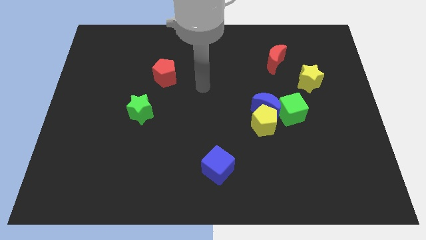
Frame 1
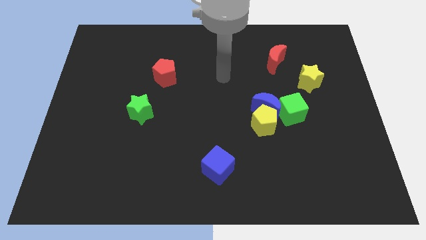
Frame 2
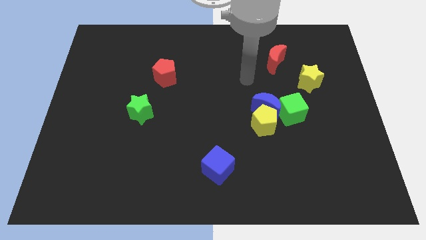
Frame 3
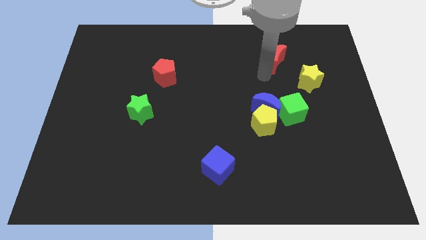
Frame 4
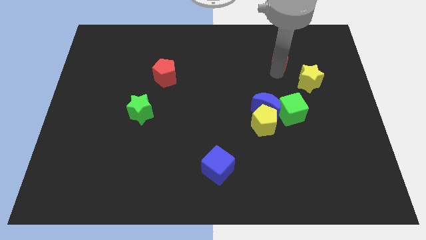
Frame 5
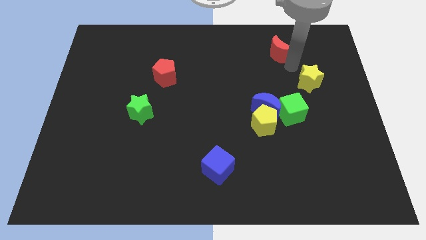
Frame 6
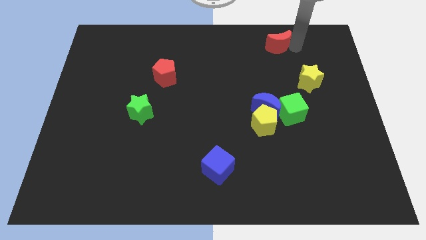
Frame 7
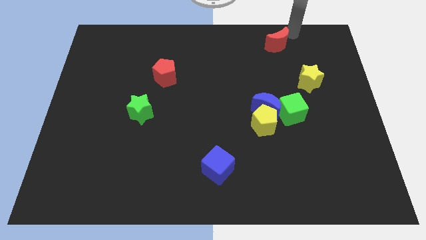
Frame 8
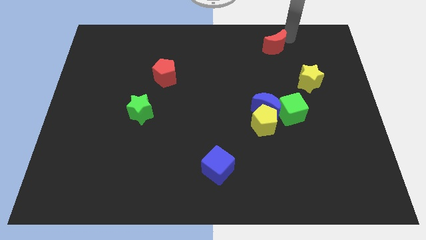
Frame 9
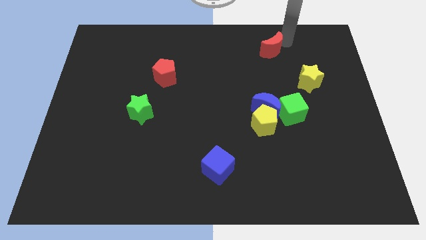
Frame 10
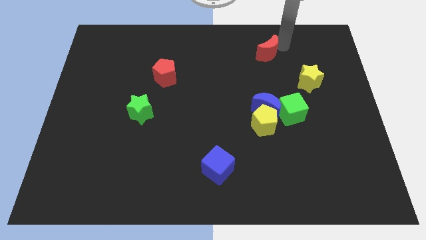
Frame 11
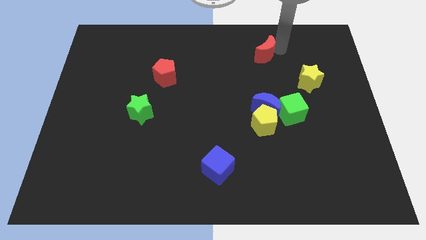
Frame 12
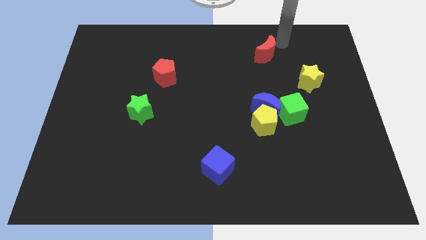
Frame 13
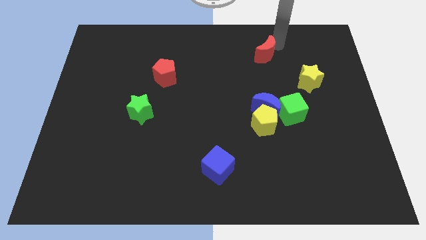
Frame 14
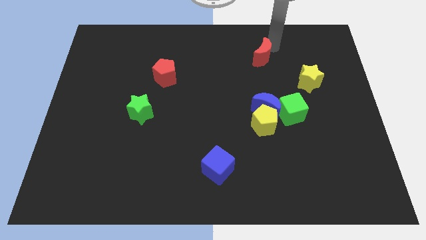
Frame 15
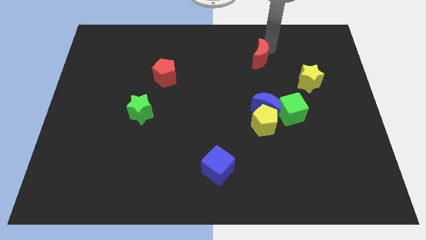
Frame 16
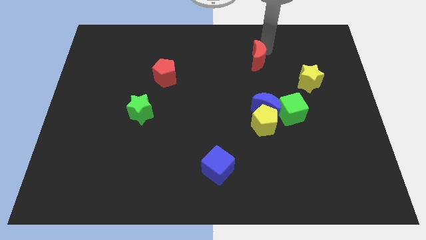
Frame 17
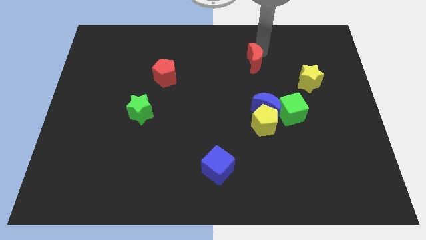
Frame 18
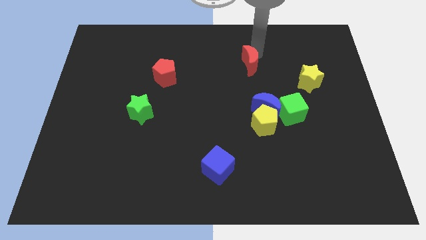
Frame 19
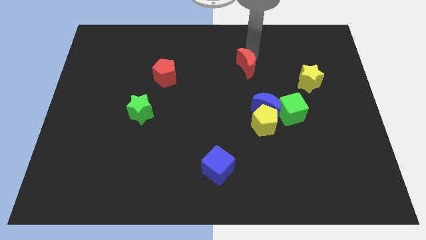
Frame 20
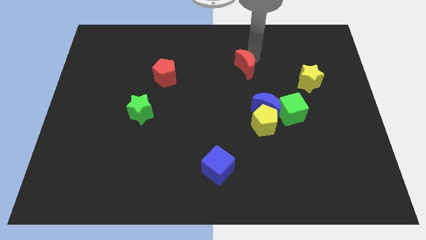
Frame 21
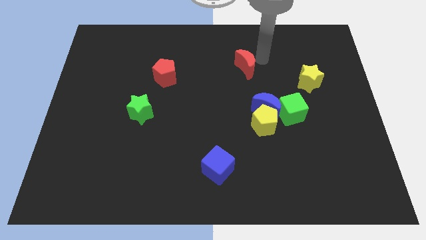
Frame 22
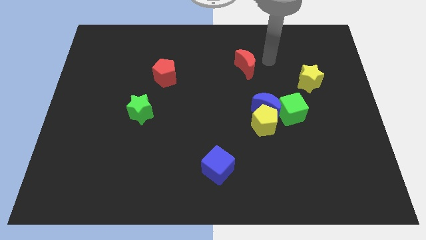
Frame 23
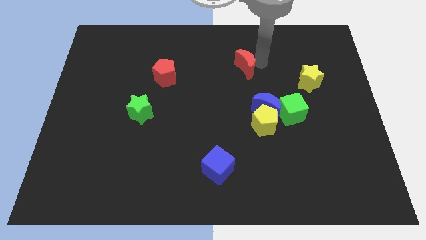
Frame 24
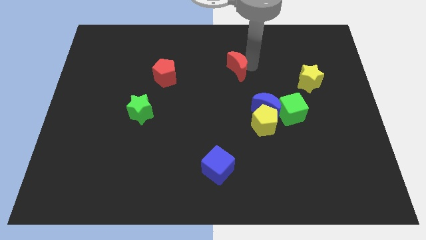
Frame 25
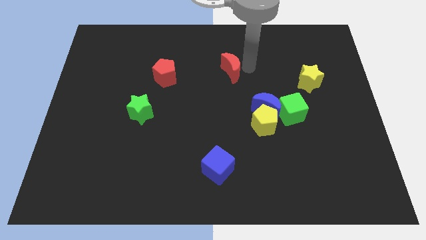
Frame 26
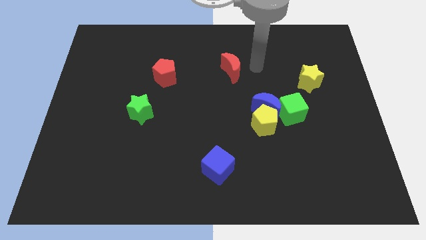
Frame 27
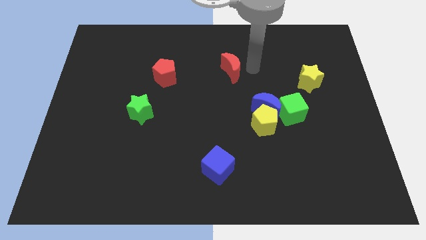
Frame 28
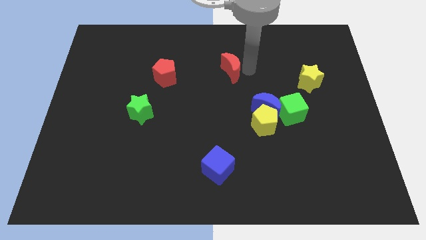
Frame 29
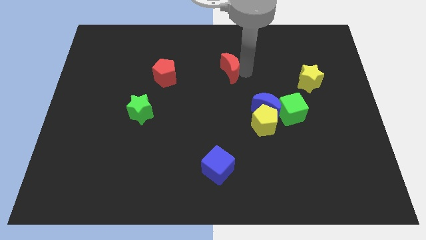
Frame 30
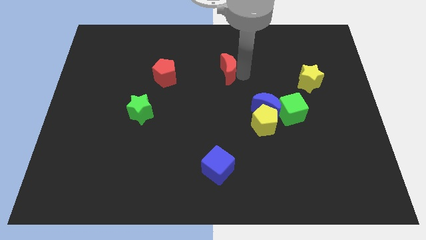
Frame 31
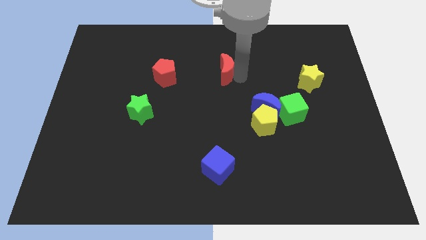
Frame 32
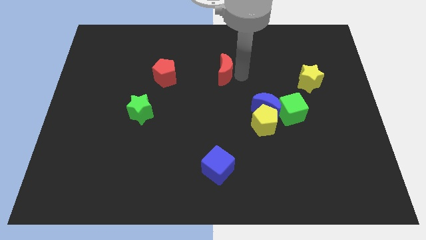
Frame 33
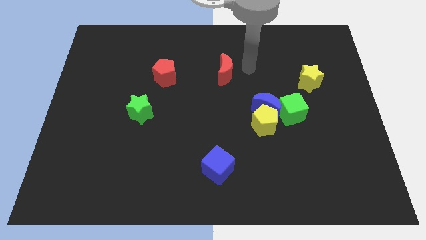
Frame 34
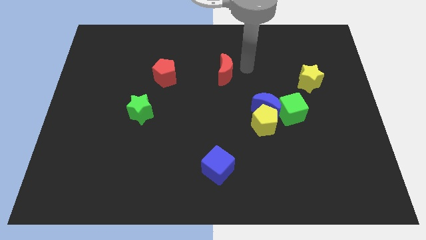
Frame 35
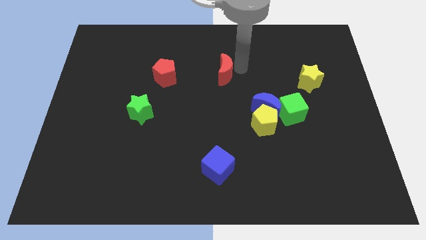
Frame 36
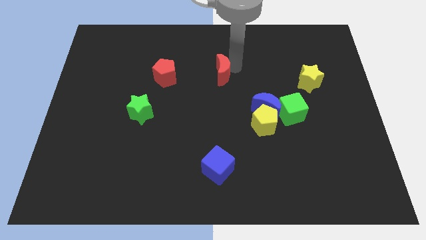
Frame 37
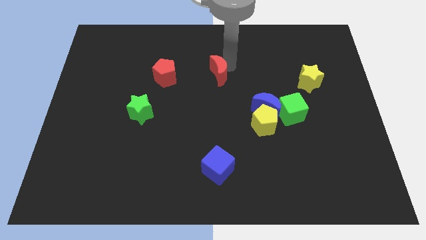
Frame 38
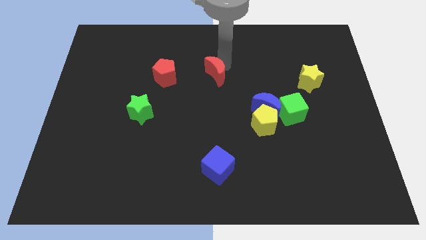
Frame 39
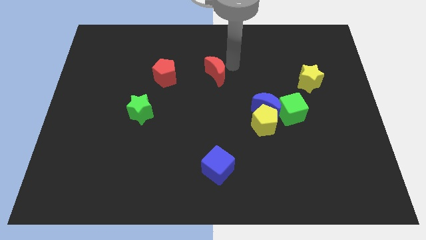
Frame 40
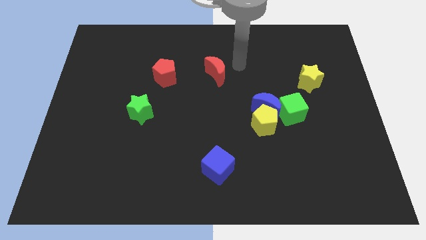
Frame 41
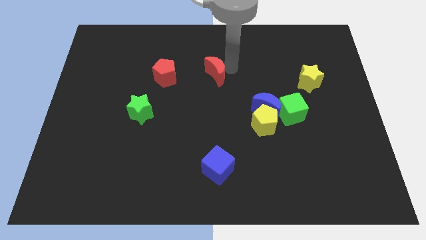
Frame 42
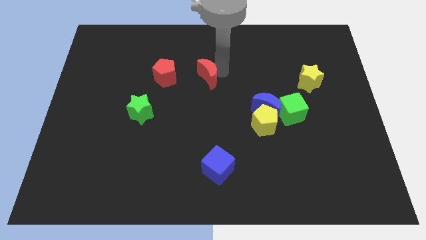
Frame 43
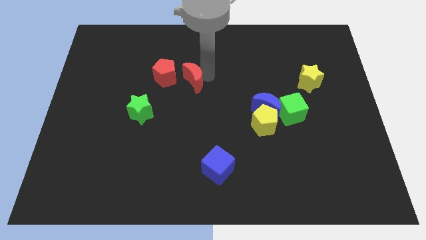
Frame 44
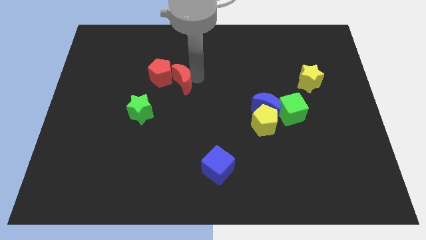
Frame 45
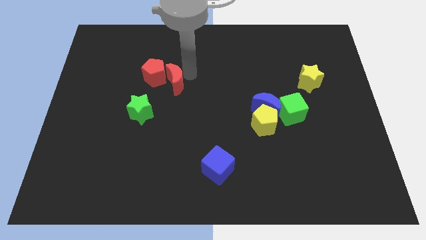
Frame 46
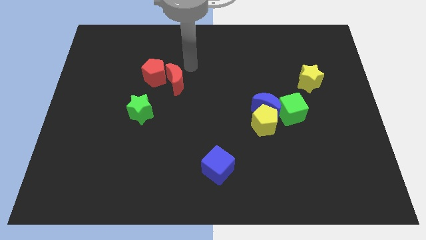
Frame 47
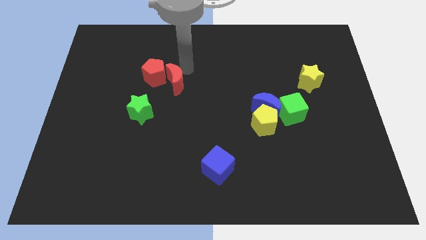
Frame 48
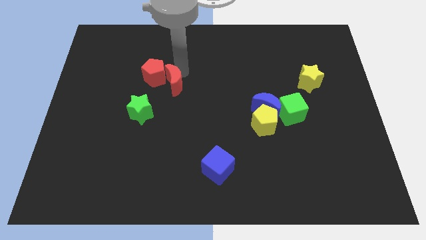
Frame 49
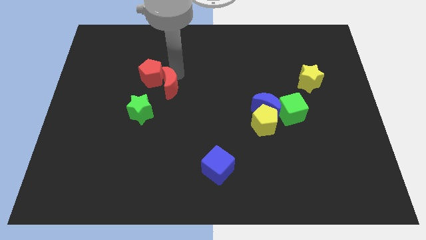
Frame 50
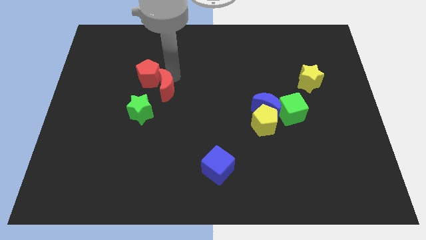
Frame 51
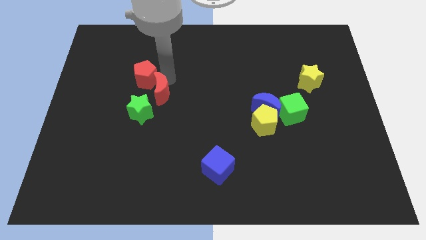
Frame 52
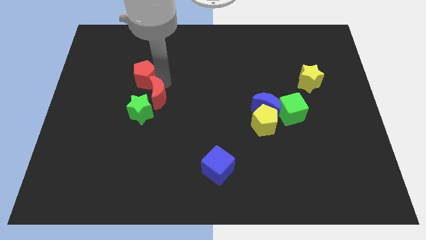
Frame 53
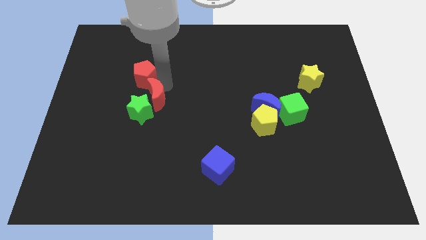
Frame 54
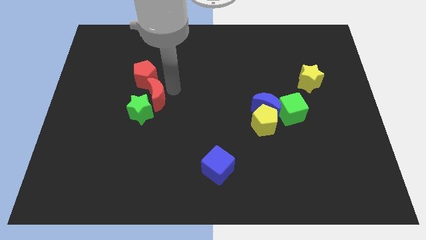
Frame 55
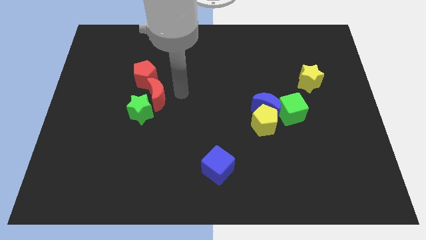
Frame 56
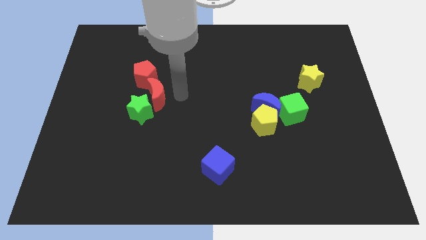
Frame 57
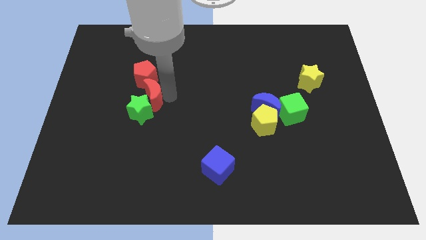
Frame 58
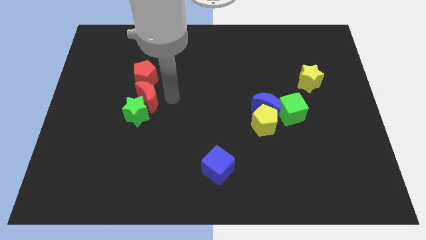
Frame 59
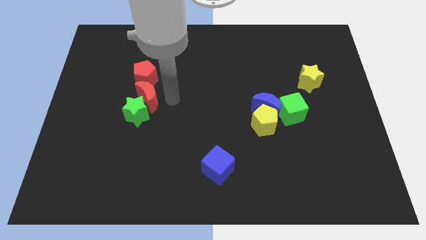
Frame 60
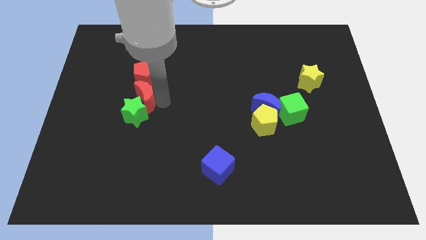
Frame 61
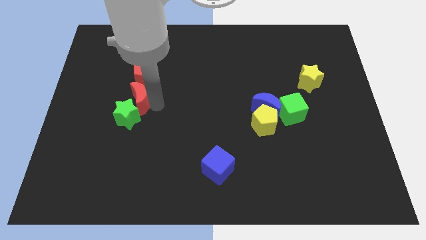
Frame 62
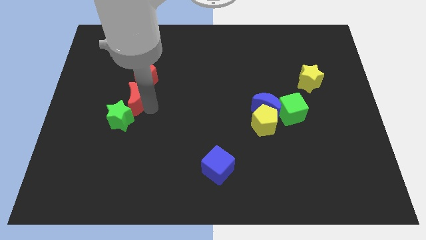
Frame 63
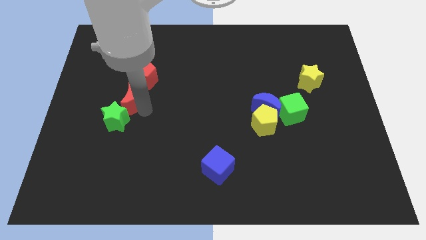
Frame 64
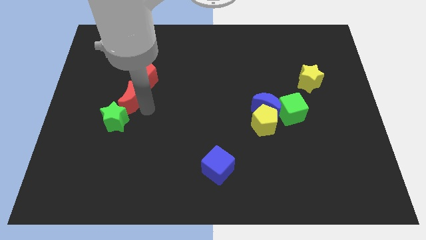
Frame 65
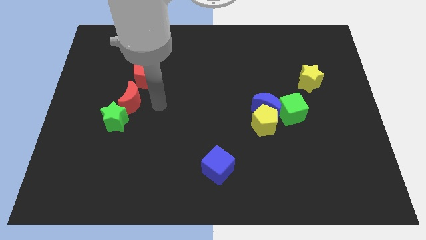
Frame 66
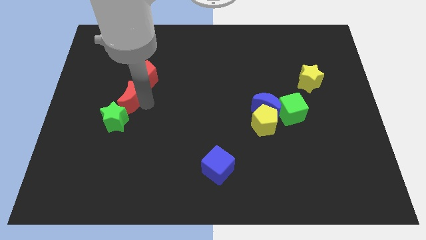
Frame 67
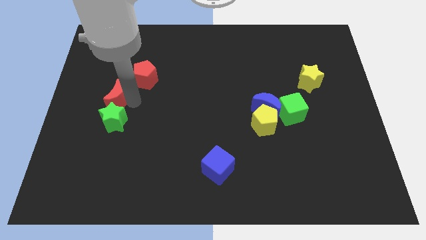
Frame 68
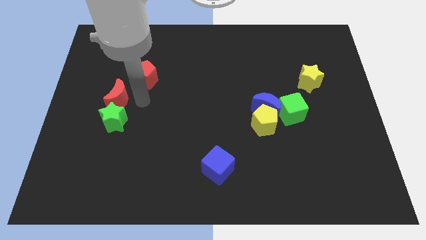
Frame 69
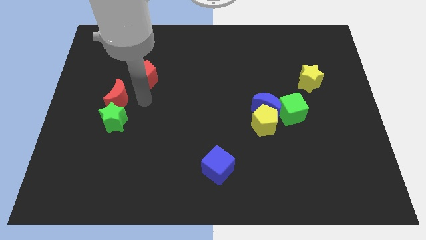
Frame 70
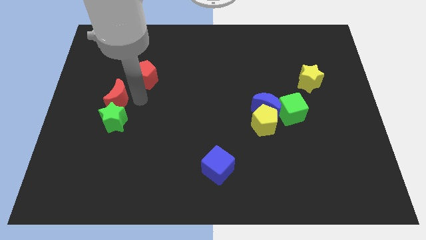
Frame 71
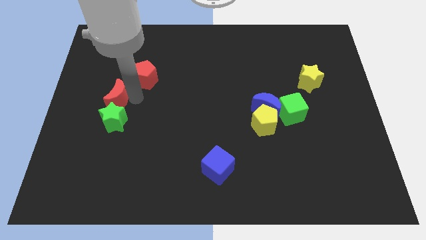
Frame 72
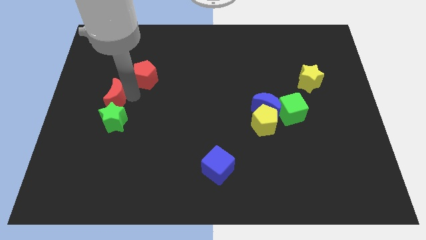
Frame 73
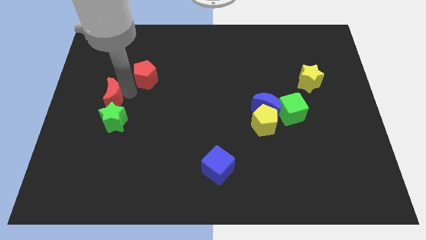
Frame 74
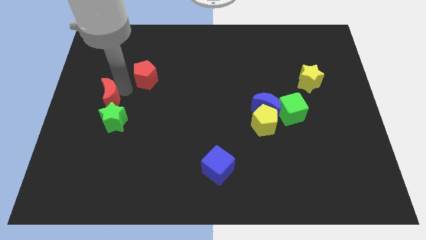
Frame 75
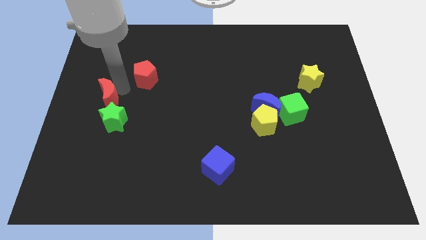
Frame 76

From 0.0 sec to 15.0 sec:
push the red moon to the center left
